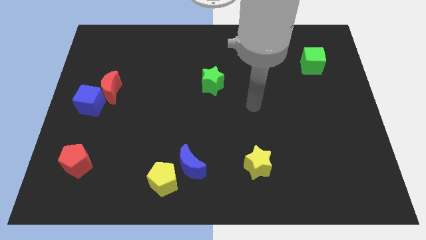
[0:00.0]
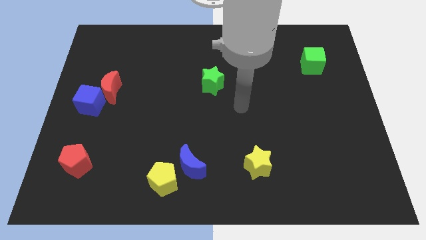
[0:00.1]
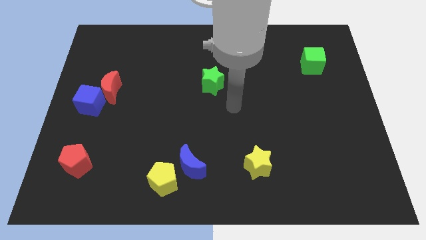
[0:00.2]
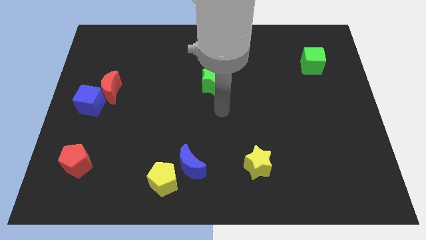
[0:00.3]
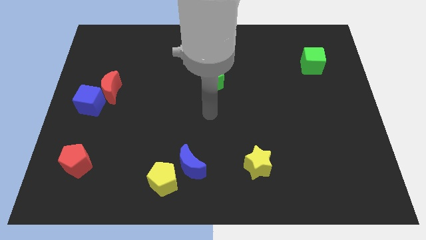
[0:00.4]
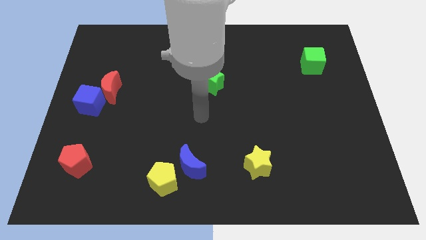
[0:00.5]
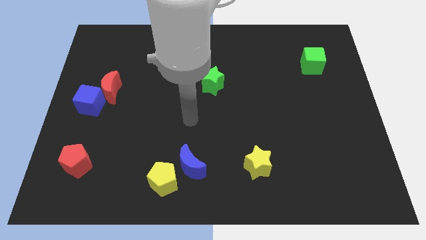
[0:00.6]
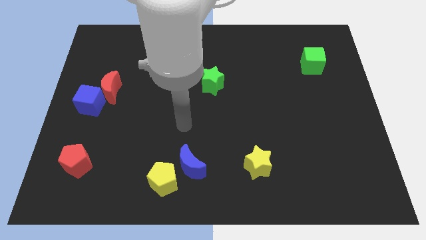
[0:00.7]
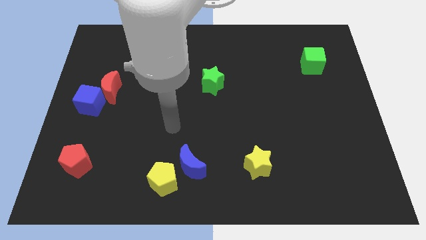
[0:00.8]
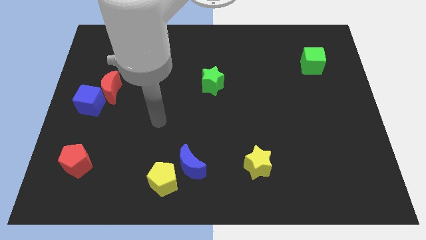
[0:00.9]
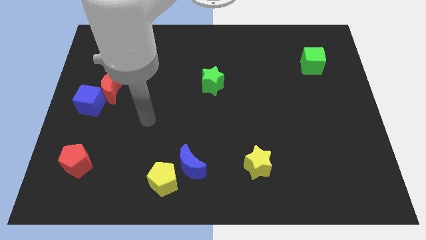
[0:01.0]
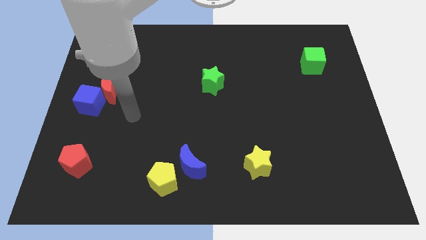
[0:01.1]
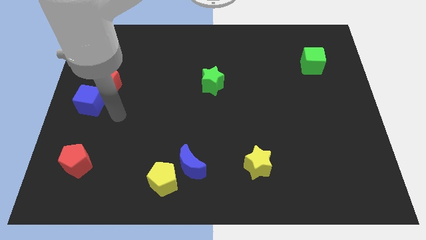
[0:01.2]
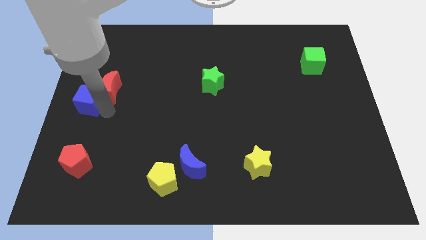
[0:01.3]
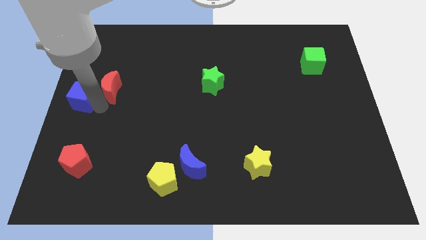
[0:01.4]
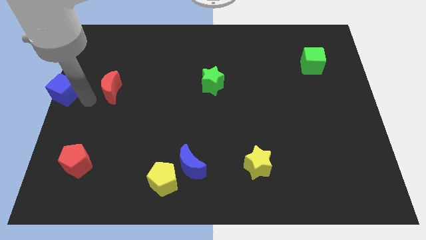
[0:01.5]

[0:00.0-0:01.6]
separate the red moon from the blue cube

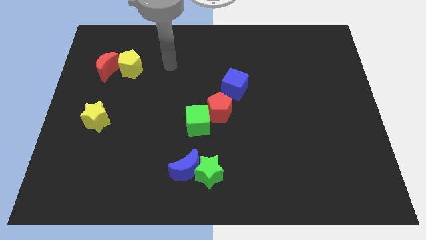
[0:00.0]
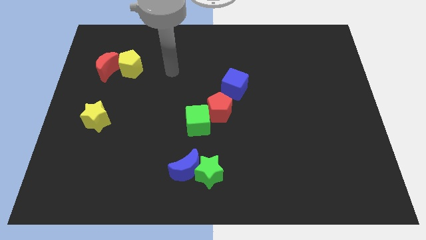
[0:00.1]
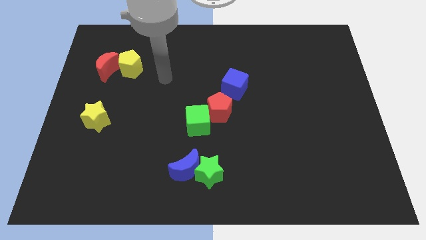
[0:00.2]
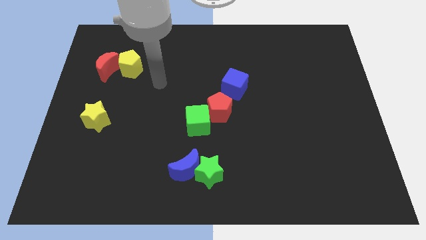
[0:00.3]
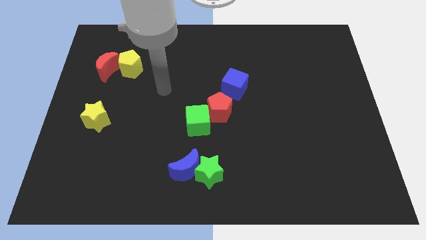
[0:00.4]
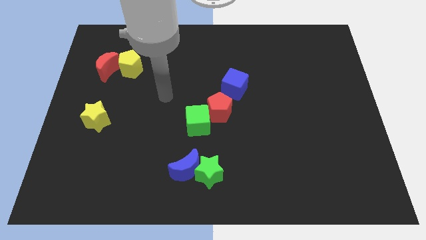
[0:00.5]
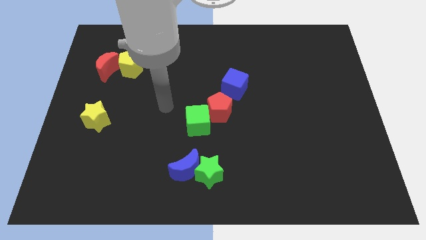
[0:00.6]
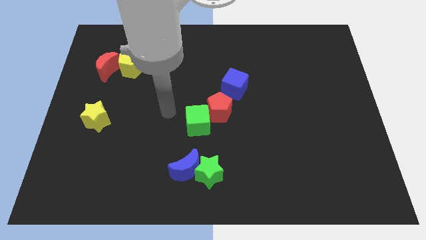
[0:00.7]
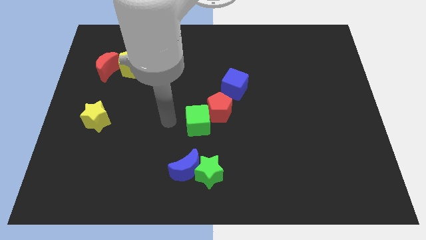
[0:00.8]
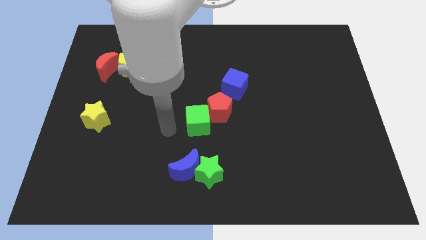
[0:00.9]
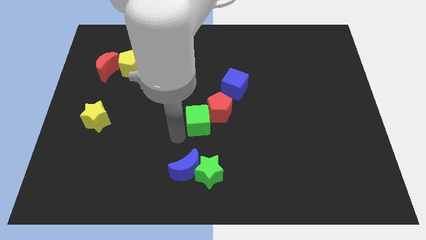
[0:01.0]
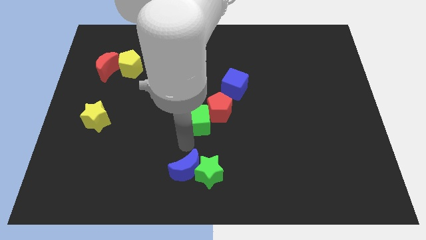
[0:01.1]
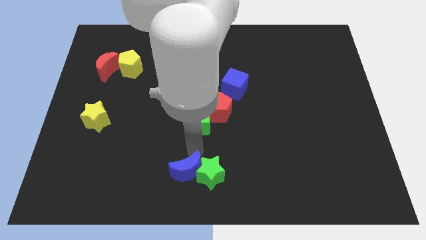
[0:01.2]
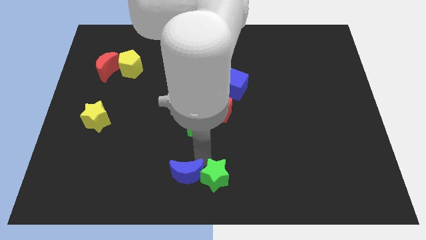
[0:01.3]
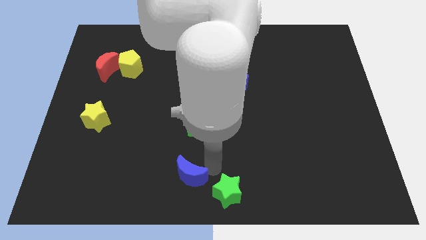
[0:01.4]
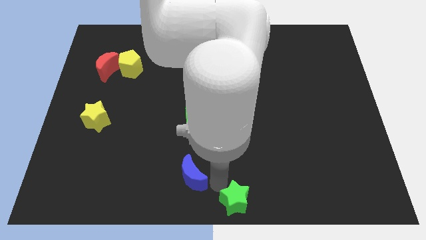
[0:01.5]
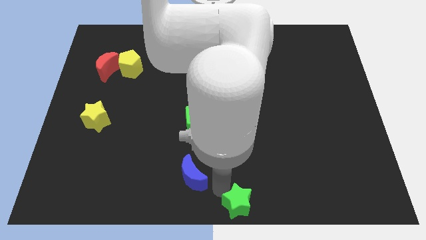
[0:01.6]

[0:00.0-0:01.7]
pull the blue moon apart from the green star

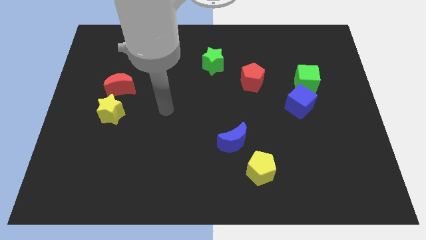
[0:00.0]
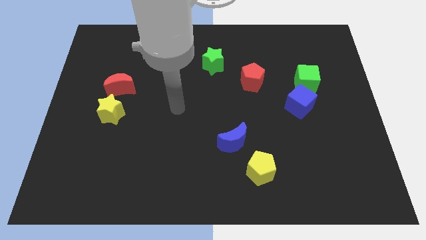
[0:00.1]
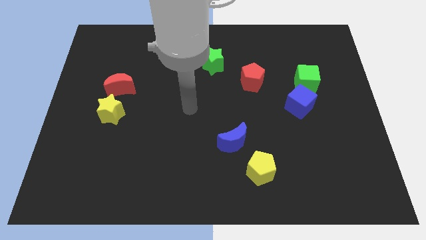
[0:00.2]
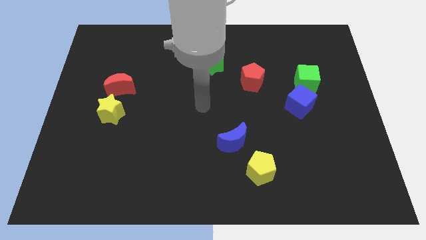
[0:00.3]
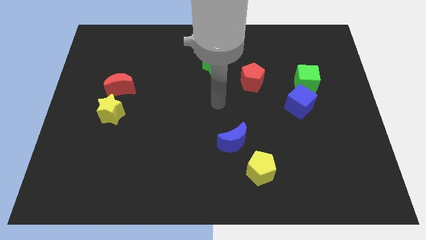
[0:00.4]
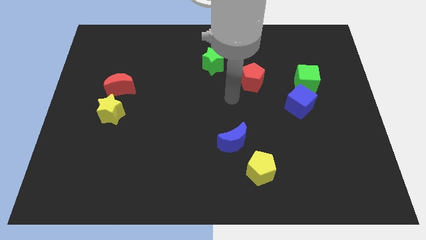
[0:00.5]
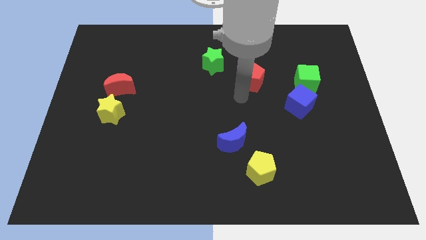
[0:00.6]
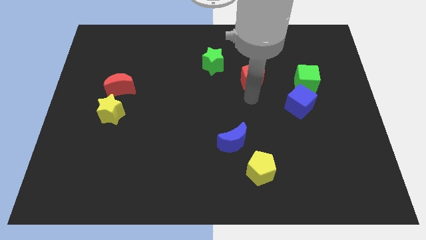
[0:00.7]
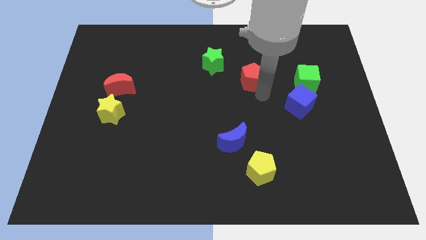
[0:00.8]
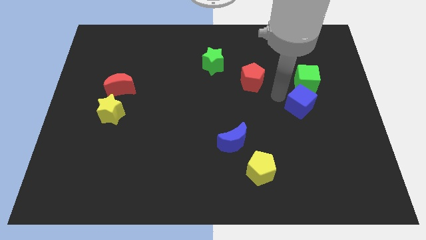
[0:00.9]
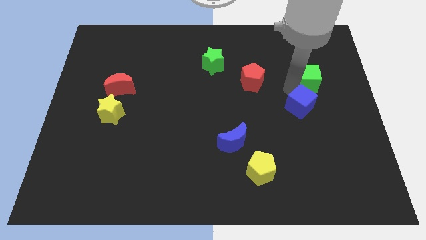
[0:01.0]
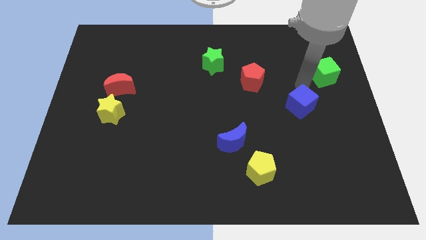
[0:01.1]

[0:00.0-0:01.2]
pull the blue cube apart from the green cube

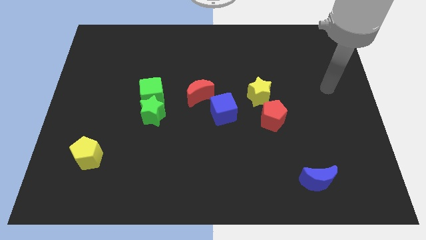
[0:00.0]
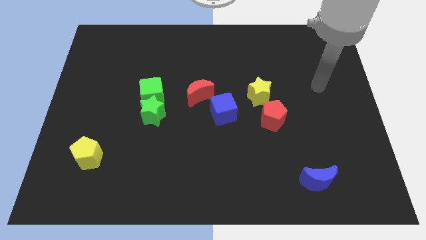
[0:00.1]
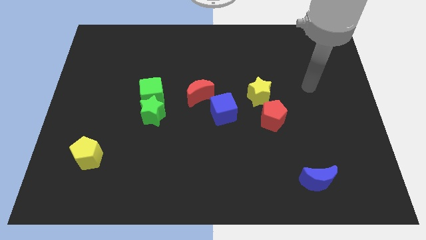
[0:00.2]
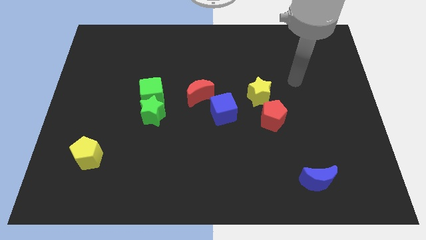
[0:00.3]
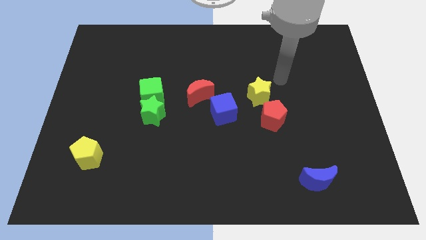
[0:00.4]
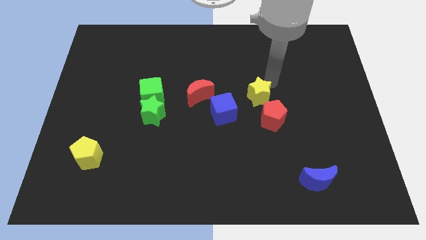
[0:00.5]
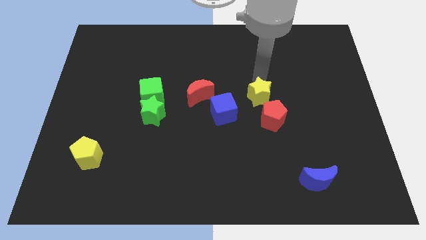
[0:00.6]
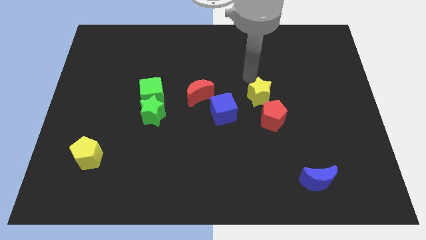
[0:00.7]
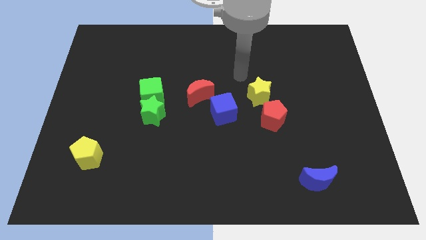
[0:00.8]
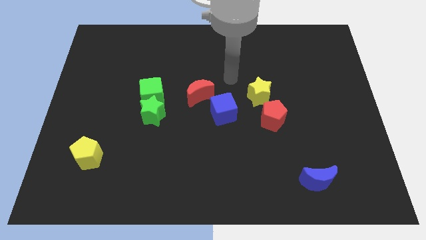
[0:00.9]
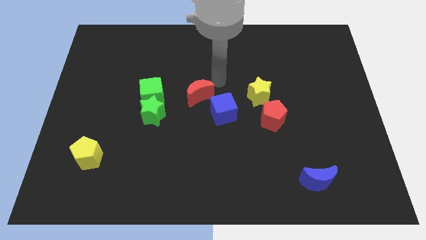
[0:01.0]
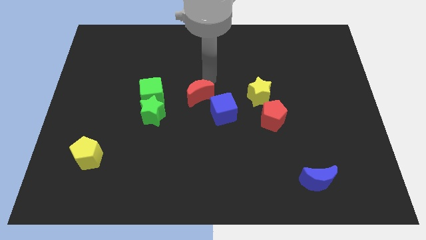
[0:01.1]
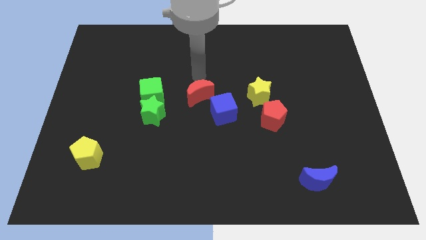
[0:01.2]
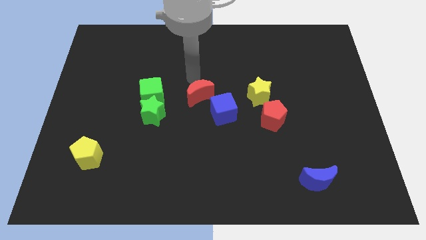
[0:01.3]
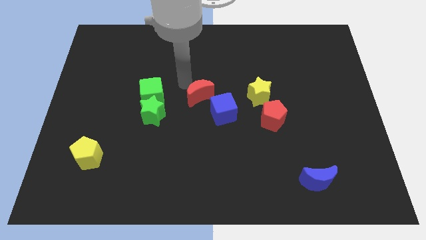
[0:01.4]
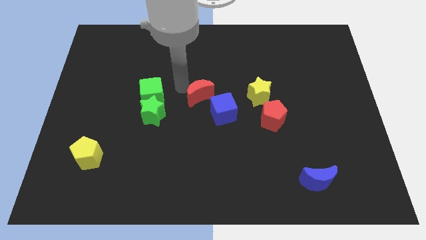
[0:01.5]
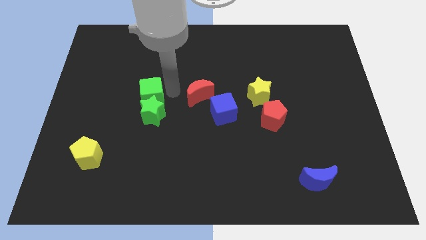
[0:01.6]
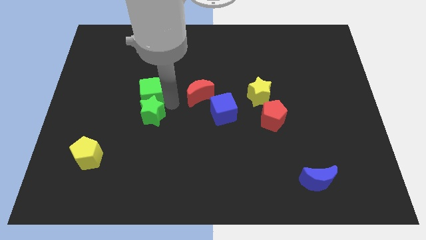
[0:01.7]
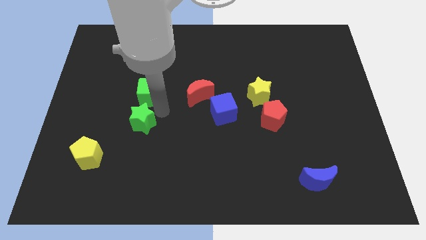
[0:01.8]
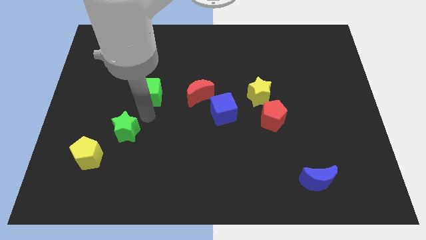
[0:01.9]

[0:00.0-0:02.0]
pull the green cube apart from the green star

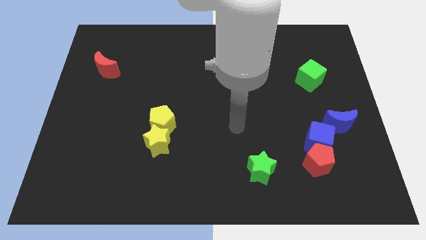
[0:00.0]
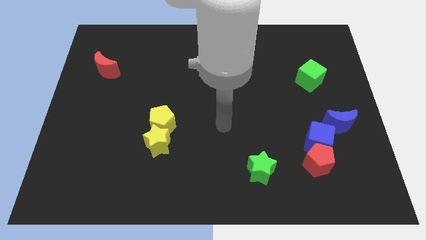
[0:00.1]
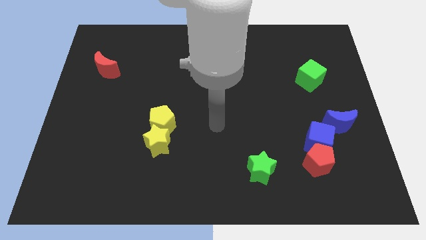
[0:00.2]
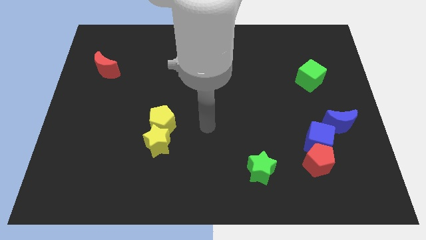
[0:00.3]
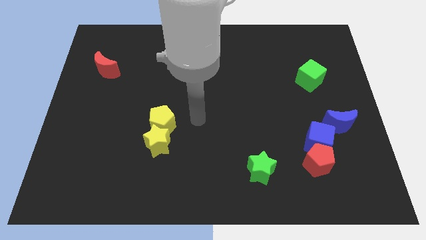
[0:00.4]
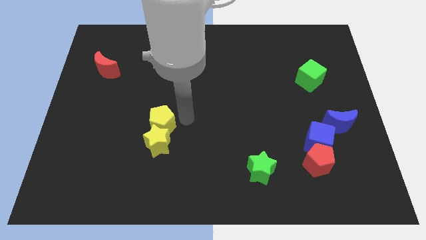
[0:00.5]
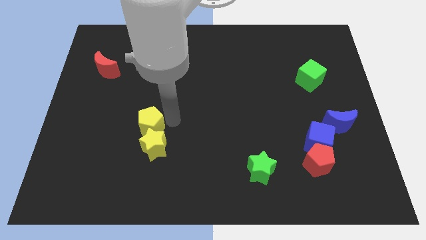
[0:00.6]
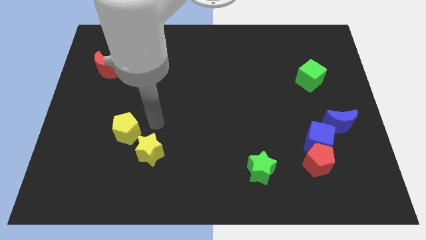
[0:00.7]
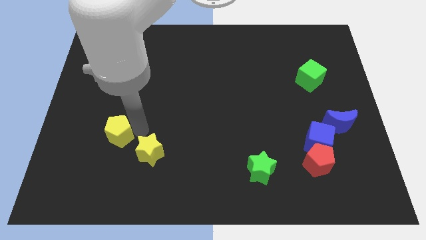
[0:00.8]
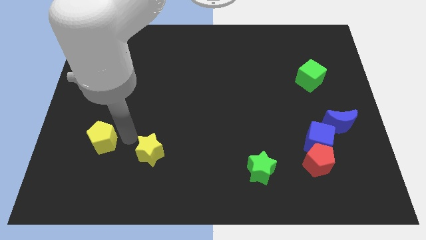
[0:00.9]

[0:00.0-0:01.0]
move the yellow star away from the yellow pentagon

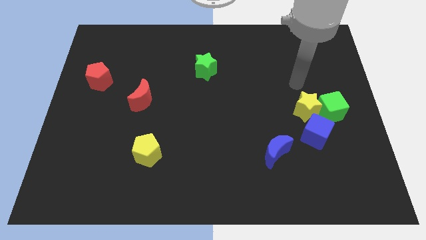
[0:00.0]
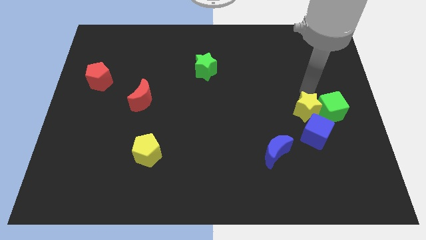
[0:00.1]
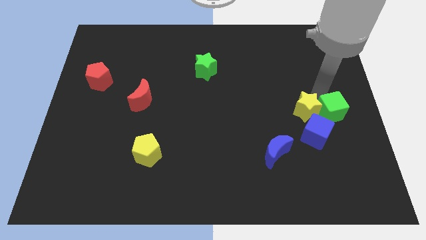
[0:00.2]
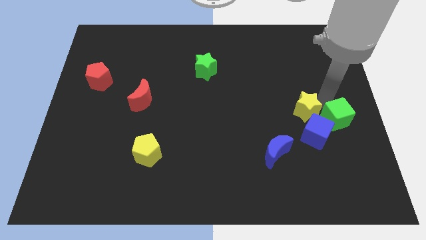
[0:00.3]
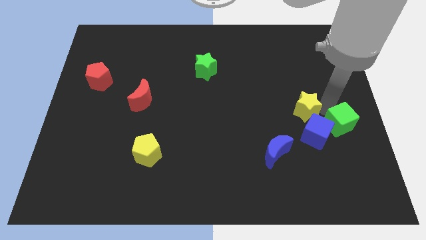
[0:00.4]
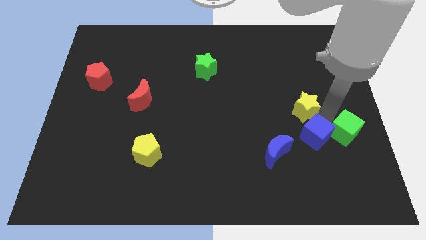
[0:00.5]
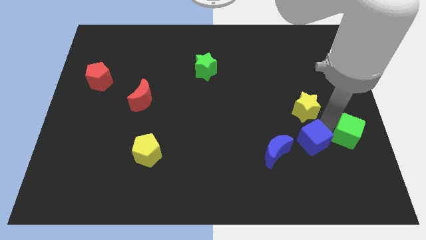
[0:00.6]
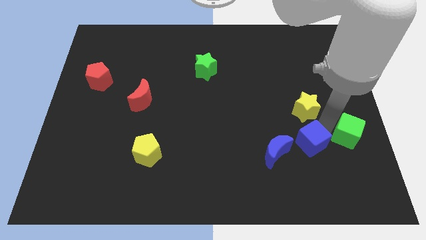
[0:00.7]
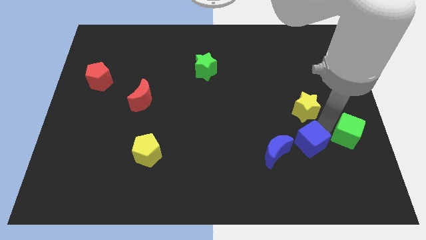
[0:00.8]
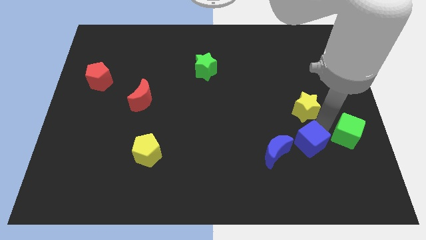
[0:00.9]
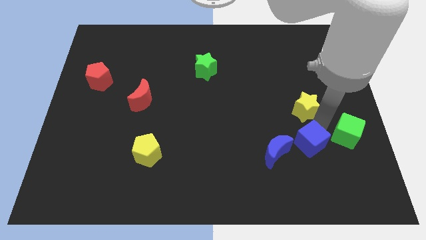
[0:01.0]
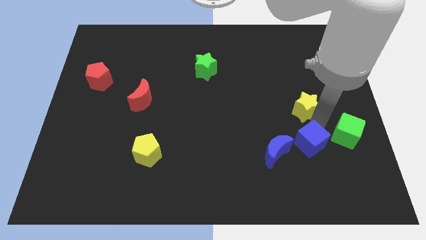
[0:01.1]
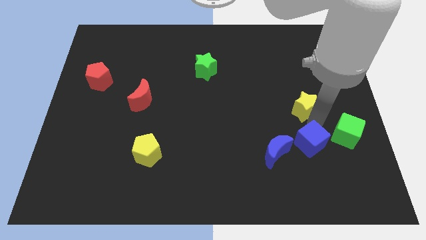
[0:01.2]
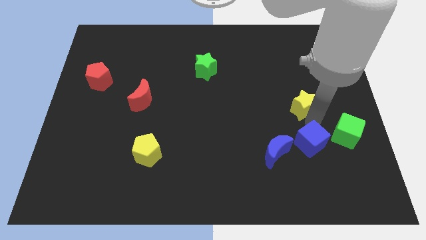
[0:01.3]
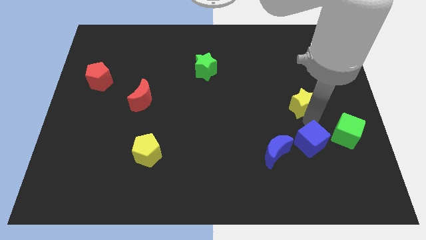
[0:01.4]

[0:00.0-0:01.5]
pull the yellow star apart from the green cube and blue cube

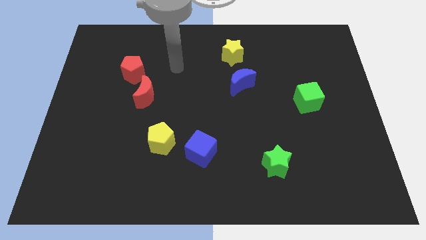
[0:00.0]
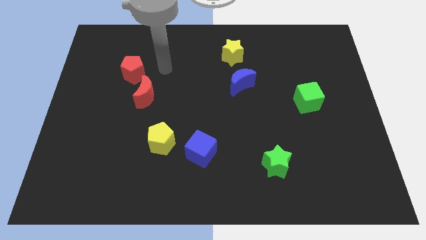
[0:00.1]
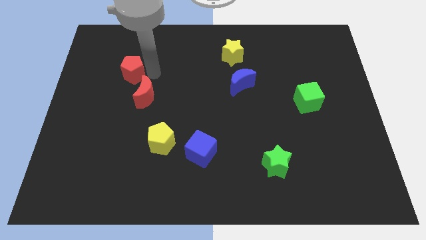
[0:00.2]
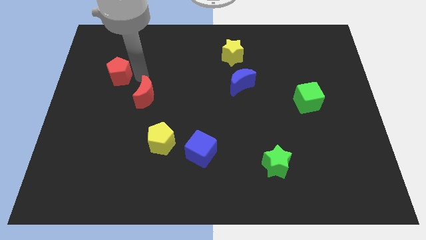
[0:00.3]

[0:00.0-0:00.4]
separate the red moon from the red pentagon

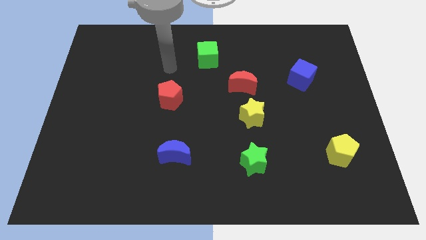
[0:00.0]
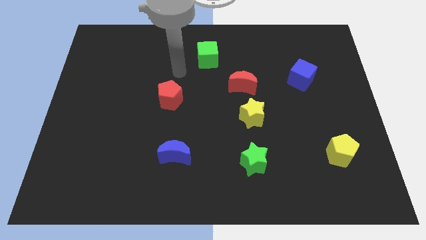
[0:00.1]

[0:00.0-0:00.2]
pull the red moon apart from the yellow star
